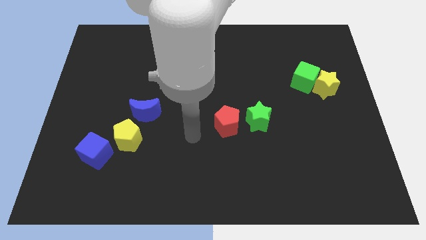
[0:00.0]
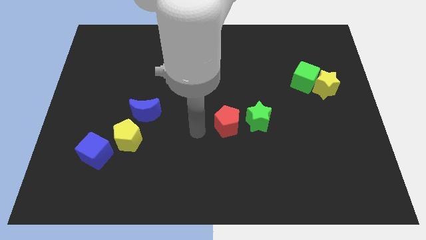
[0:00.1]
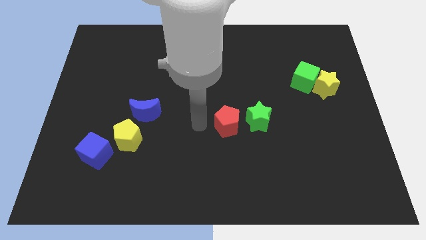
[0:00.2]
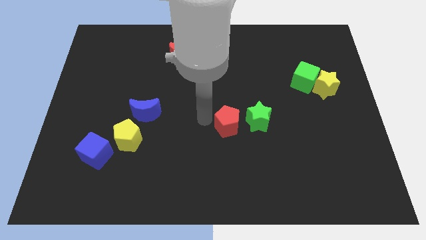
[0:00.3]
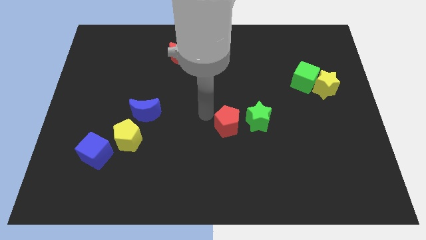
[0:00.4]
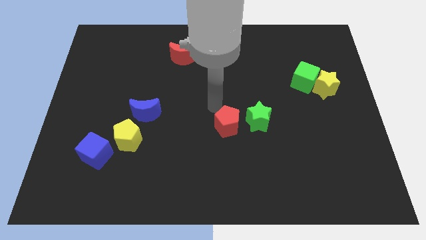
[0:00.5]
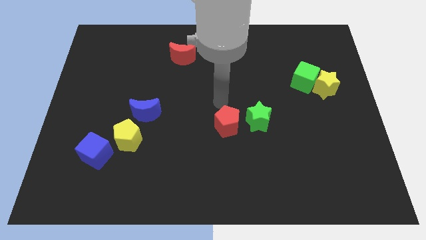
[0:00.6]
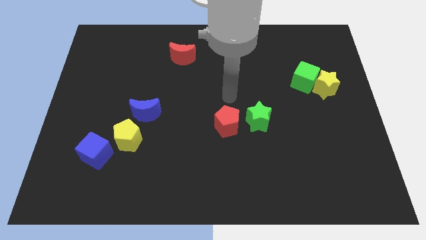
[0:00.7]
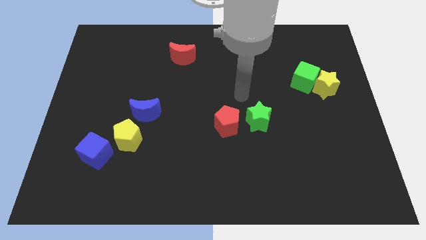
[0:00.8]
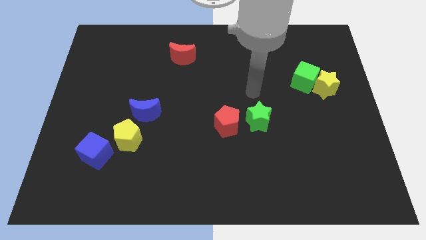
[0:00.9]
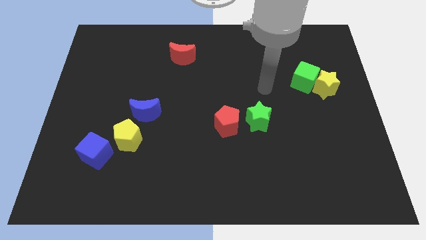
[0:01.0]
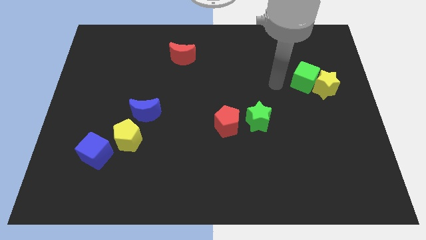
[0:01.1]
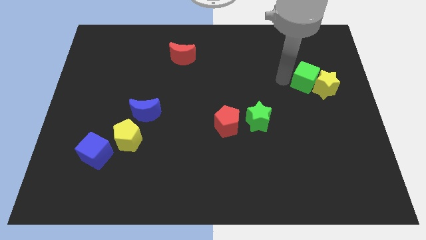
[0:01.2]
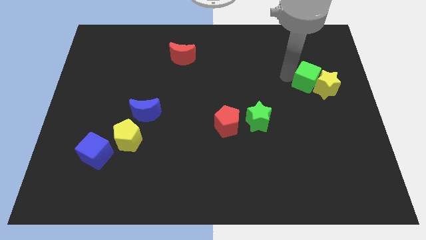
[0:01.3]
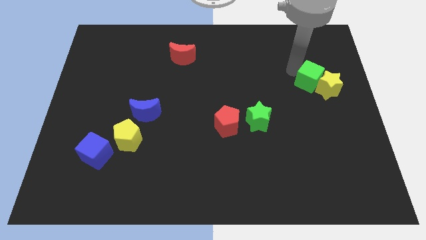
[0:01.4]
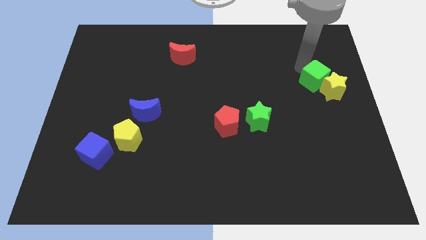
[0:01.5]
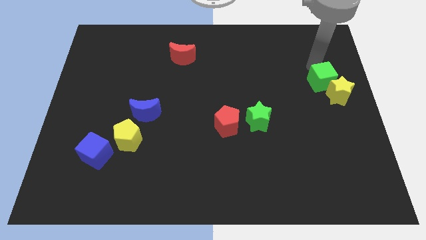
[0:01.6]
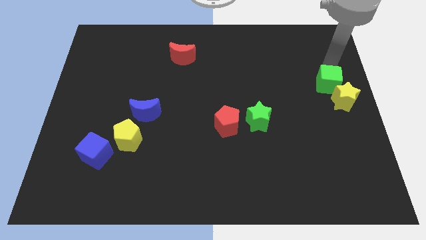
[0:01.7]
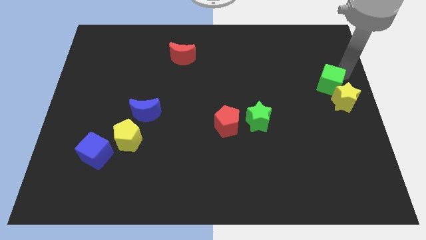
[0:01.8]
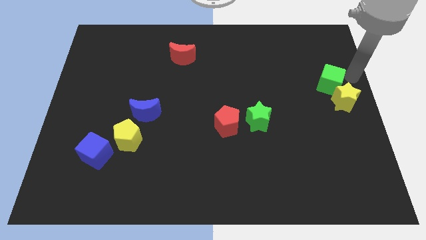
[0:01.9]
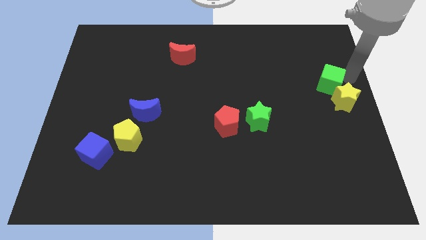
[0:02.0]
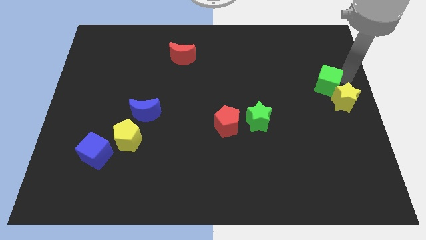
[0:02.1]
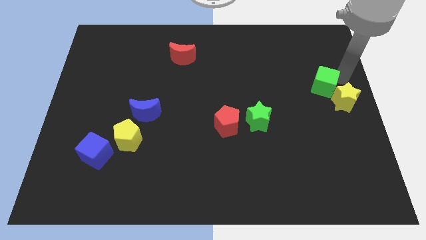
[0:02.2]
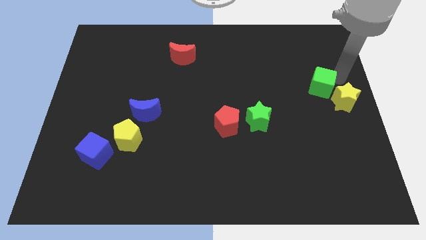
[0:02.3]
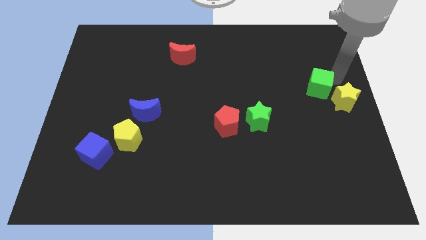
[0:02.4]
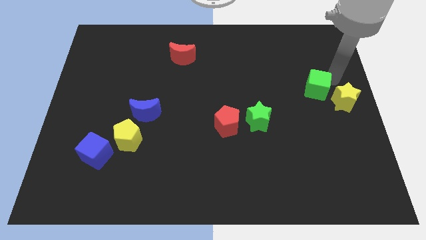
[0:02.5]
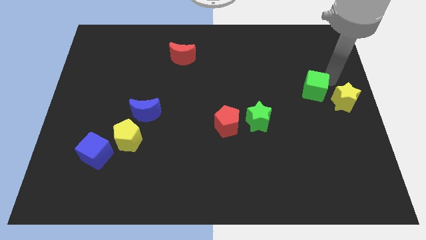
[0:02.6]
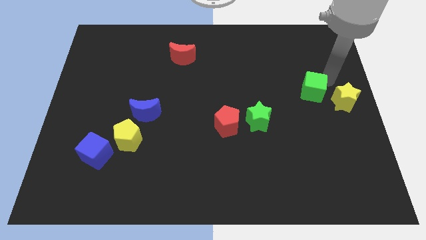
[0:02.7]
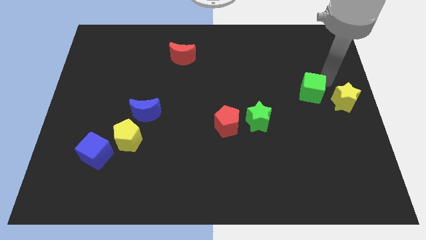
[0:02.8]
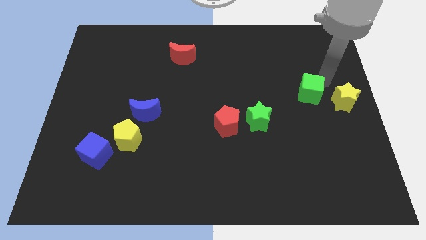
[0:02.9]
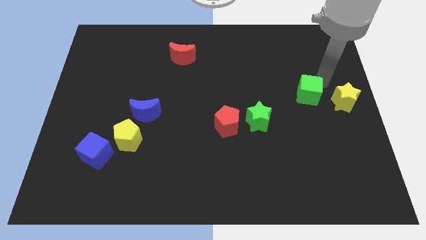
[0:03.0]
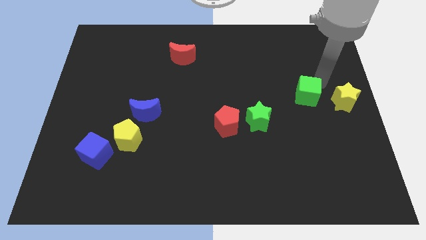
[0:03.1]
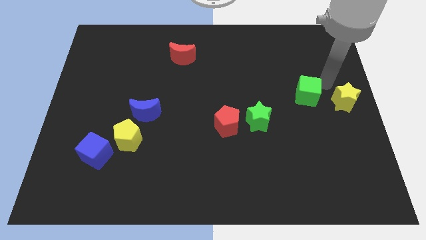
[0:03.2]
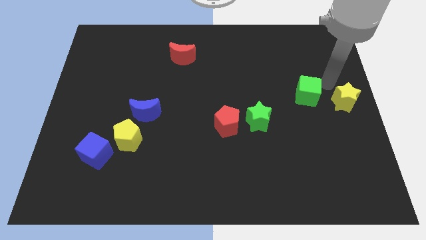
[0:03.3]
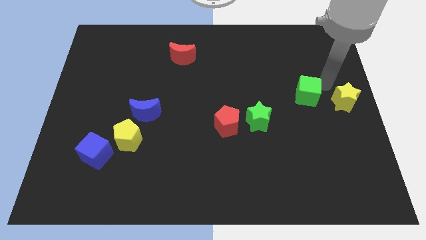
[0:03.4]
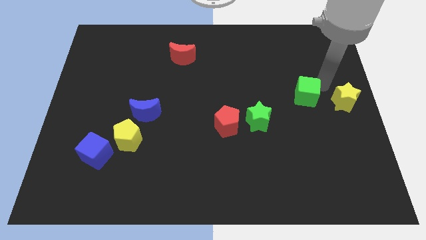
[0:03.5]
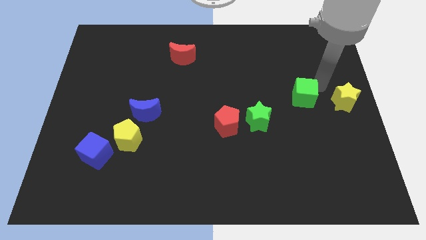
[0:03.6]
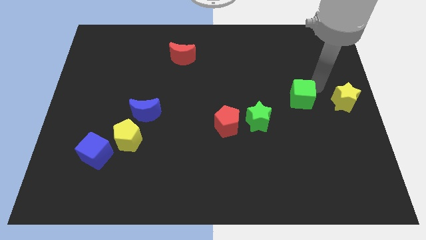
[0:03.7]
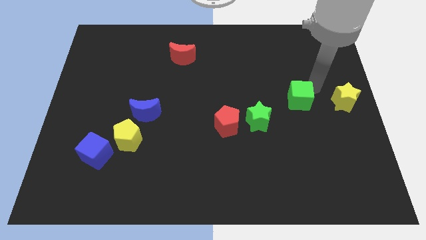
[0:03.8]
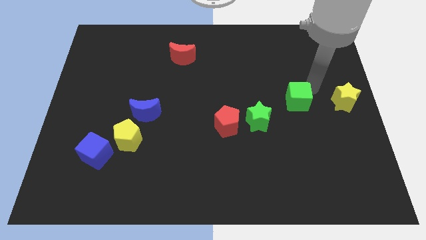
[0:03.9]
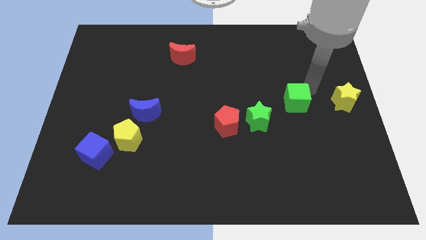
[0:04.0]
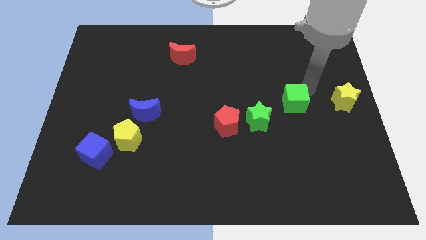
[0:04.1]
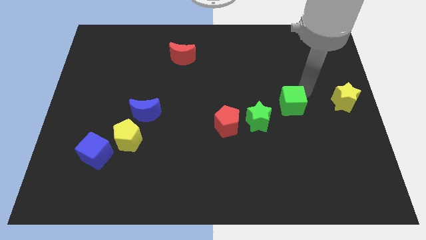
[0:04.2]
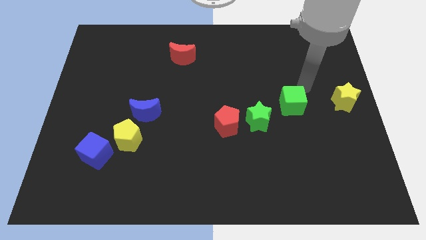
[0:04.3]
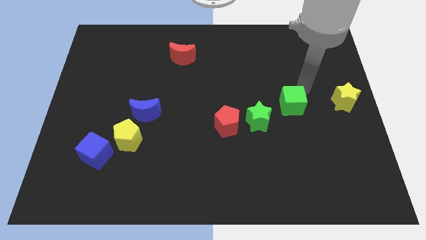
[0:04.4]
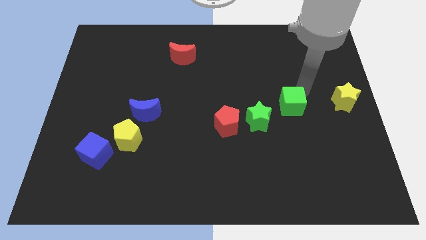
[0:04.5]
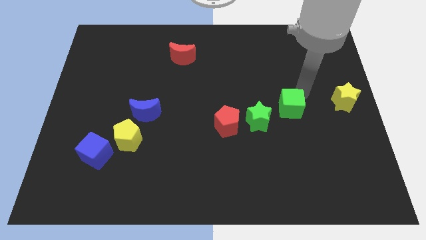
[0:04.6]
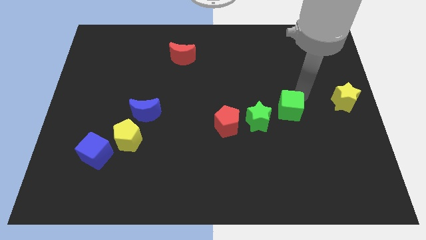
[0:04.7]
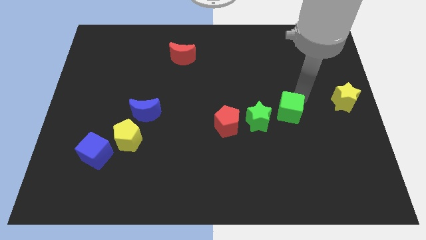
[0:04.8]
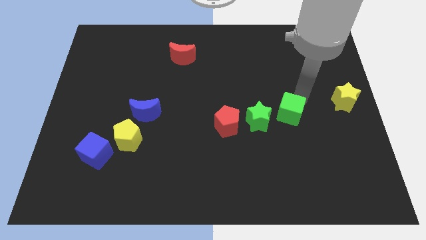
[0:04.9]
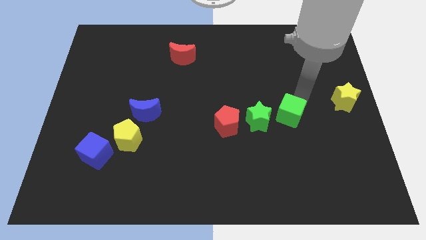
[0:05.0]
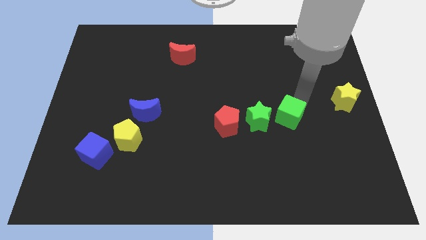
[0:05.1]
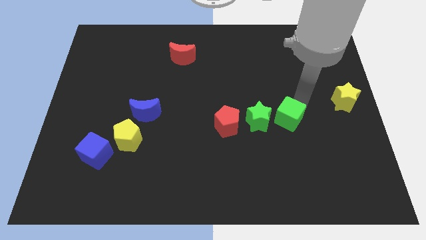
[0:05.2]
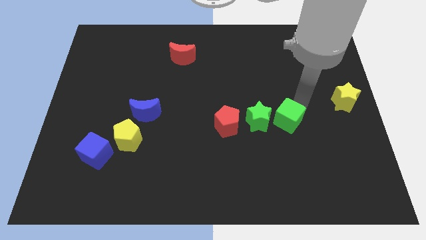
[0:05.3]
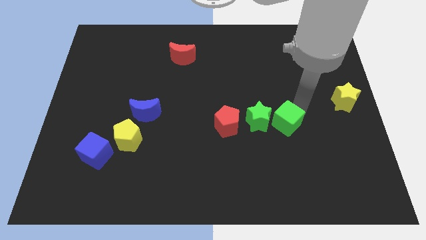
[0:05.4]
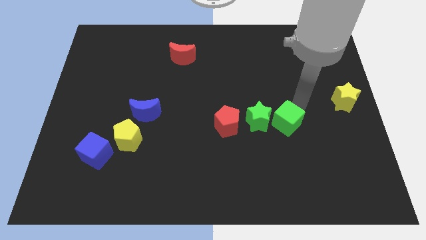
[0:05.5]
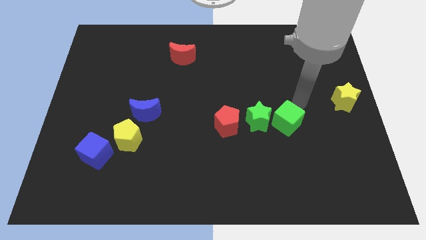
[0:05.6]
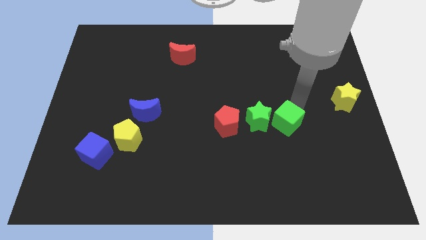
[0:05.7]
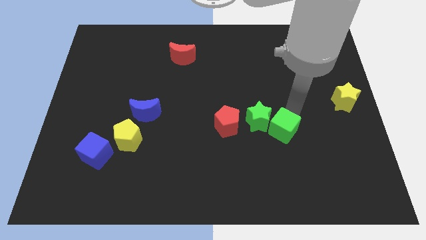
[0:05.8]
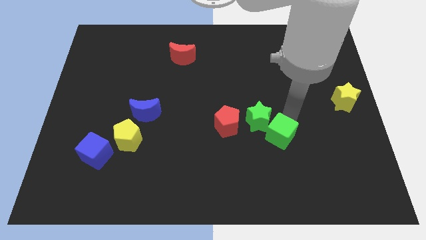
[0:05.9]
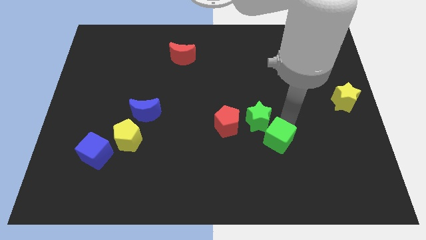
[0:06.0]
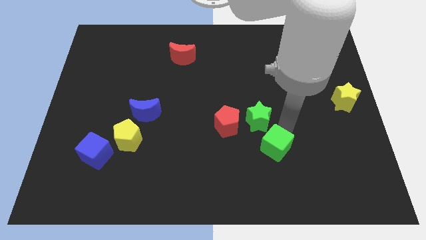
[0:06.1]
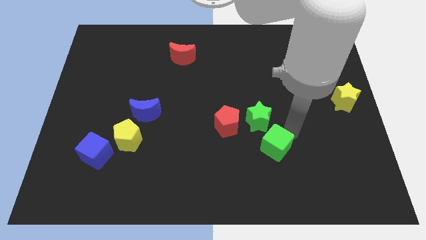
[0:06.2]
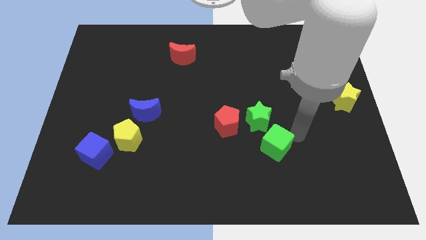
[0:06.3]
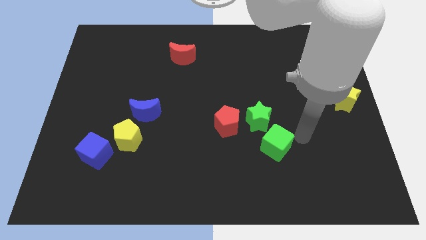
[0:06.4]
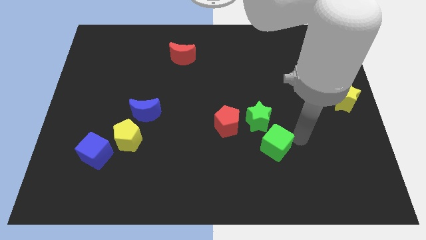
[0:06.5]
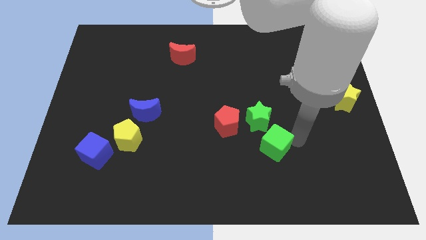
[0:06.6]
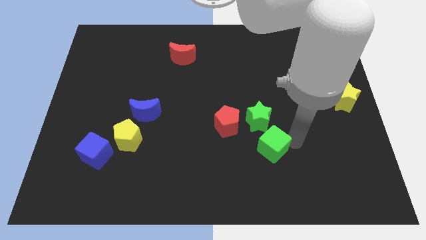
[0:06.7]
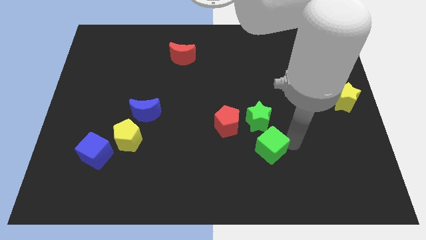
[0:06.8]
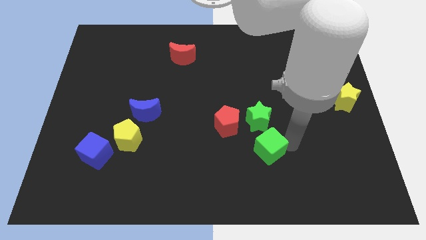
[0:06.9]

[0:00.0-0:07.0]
slide the green cube diagonally downwards and to the left

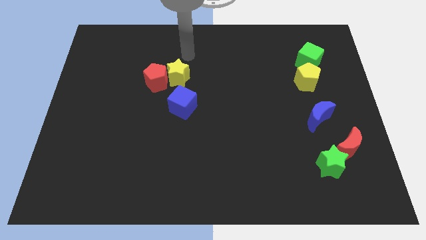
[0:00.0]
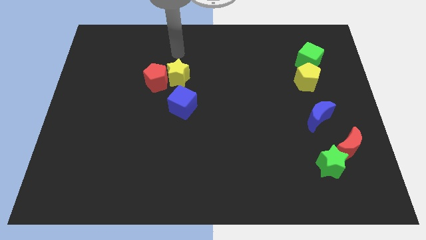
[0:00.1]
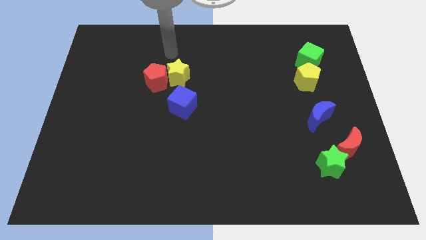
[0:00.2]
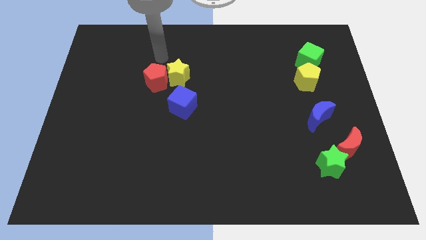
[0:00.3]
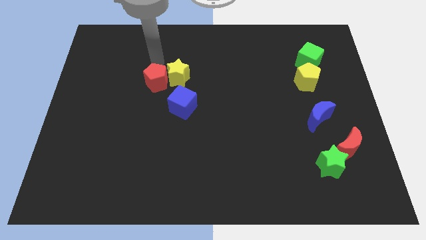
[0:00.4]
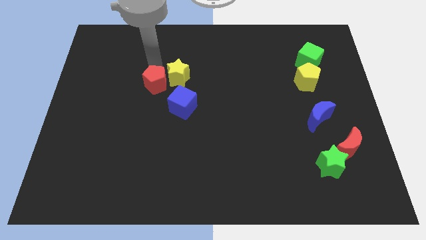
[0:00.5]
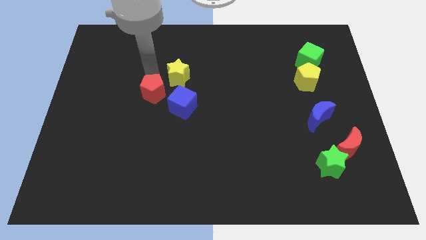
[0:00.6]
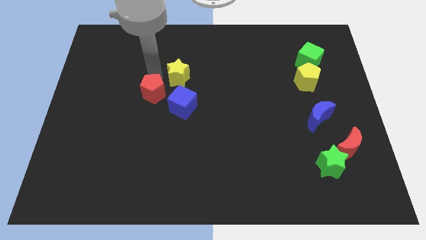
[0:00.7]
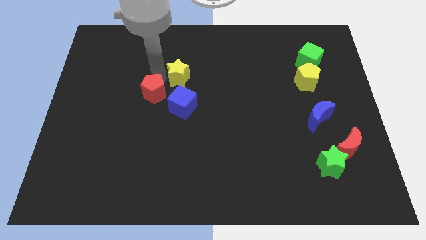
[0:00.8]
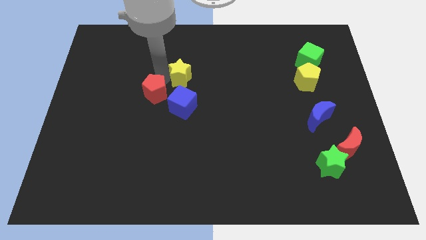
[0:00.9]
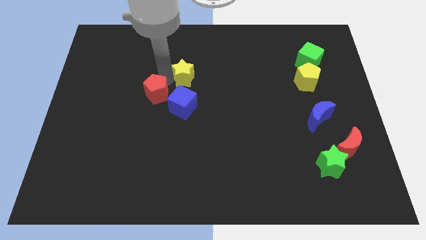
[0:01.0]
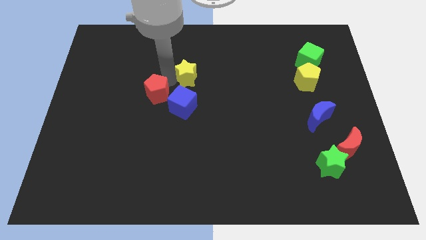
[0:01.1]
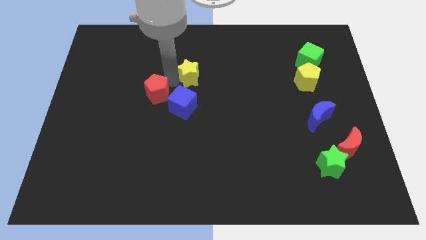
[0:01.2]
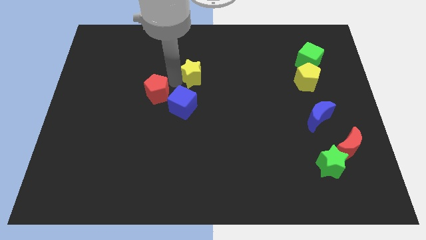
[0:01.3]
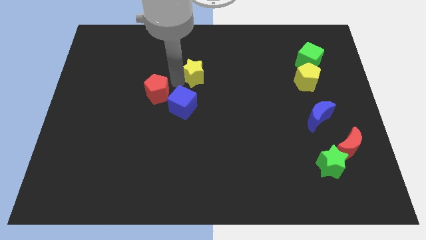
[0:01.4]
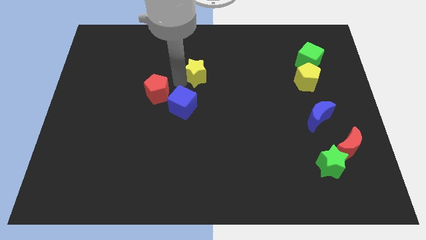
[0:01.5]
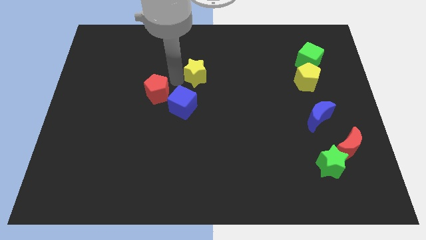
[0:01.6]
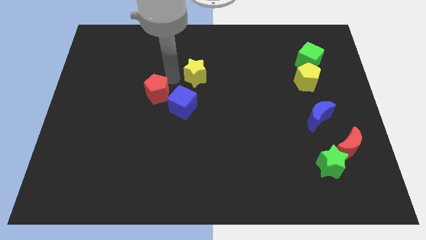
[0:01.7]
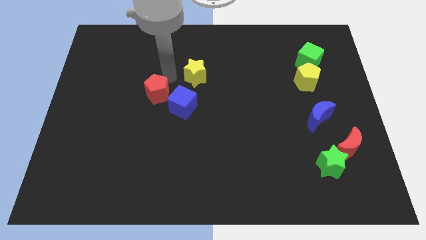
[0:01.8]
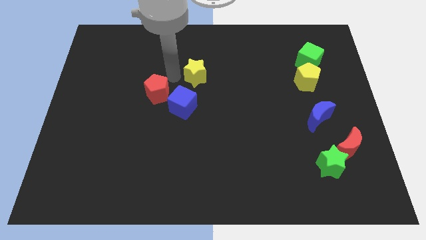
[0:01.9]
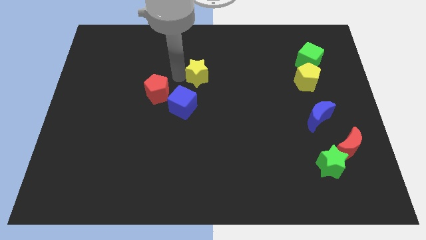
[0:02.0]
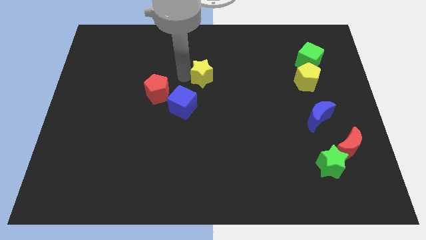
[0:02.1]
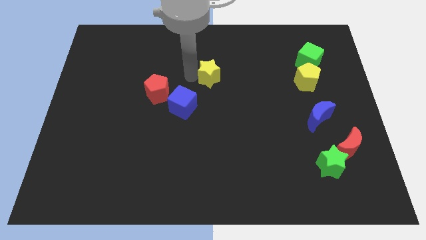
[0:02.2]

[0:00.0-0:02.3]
slightly push the yellow star right
